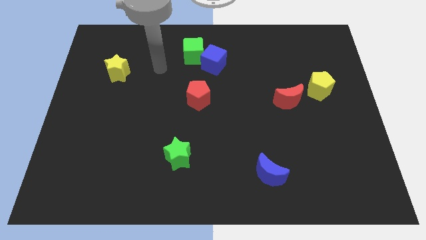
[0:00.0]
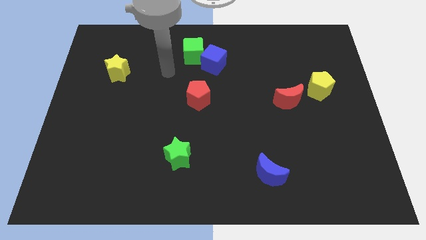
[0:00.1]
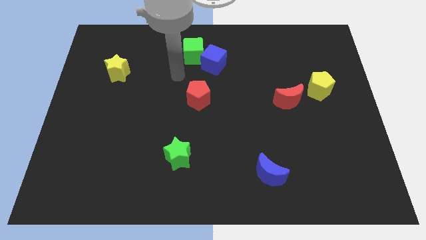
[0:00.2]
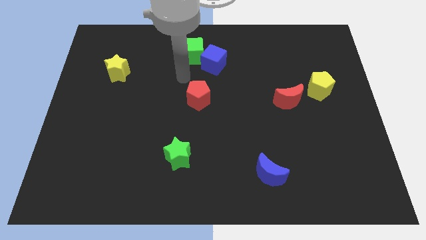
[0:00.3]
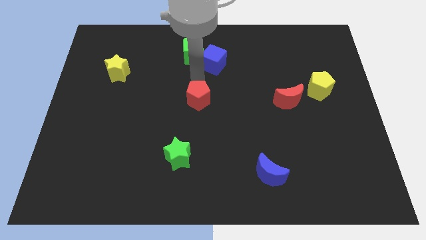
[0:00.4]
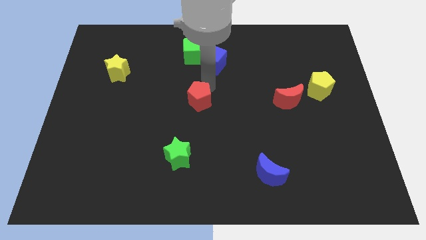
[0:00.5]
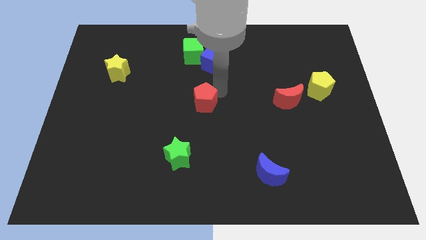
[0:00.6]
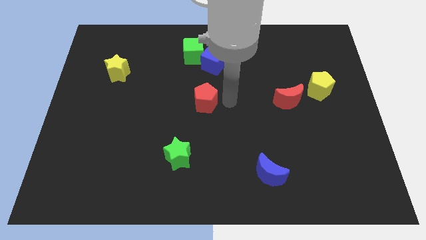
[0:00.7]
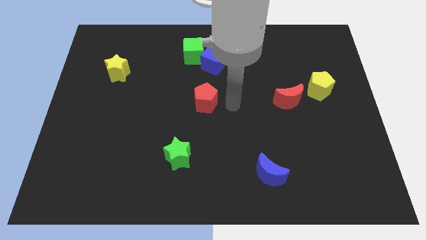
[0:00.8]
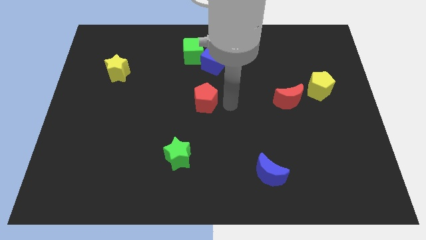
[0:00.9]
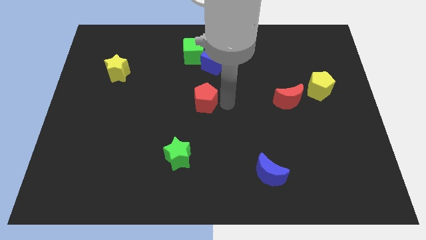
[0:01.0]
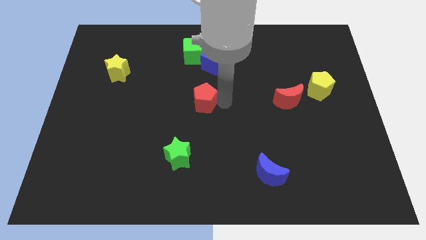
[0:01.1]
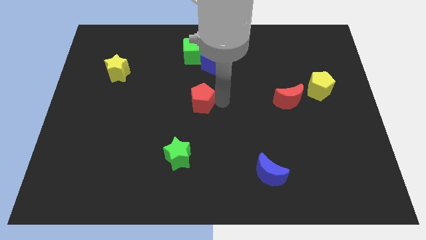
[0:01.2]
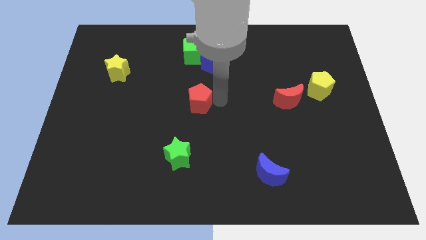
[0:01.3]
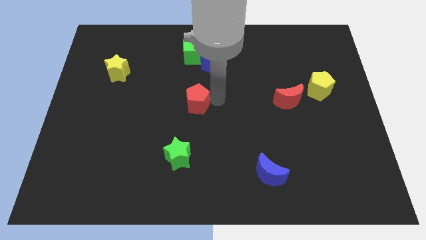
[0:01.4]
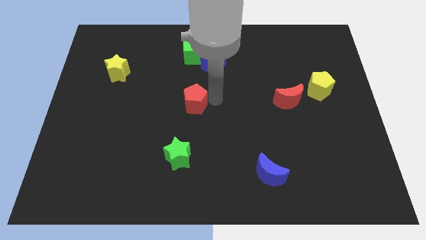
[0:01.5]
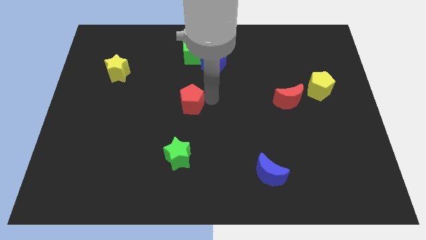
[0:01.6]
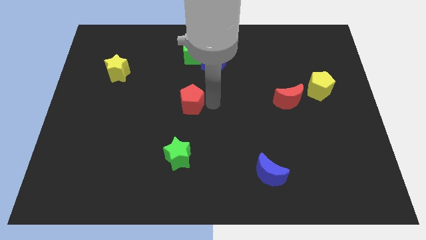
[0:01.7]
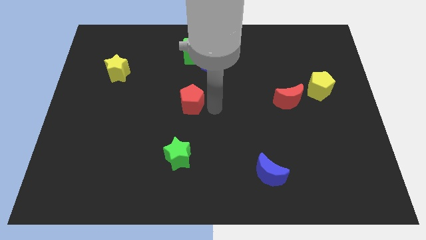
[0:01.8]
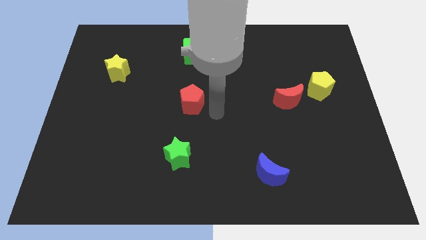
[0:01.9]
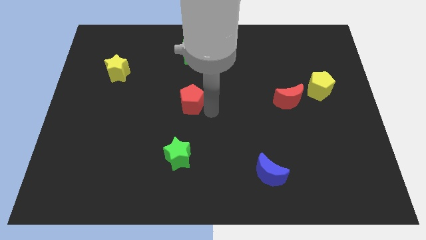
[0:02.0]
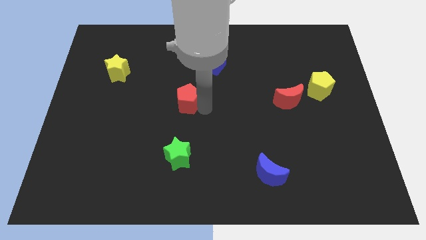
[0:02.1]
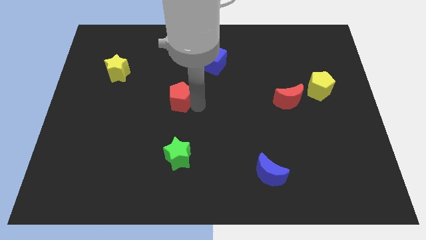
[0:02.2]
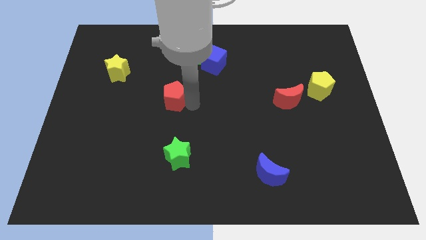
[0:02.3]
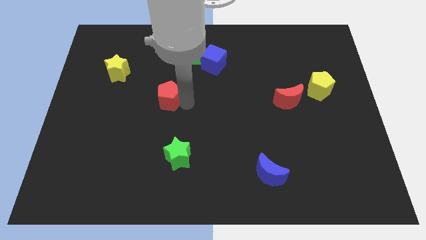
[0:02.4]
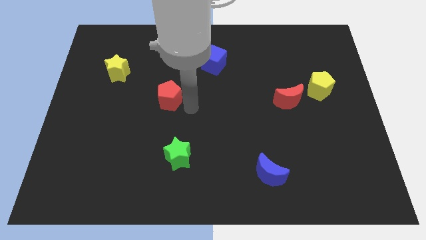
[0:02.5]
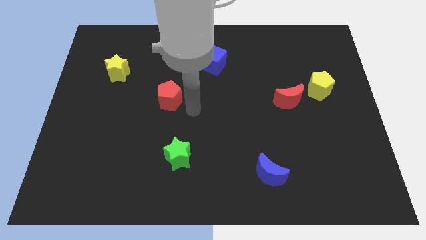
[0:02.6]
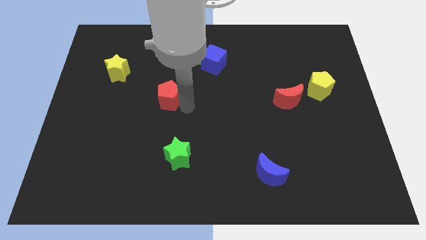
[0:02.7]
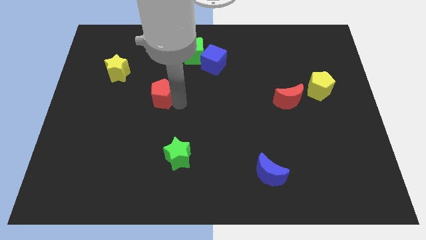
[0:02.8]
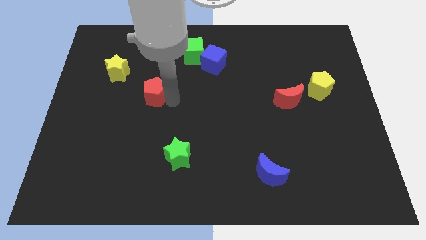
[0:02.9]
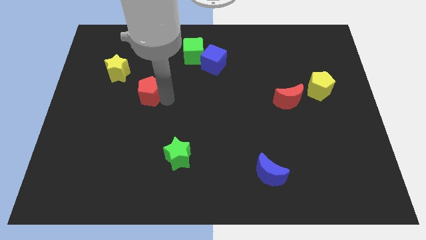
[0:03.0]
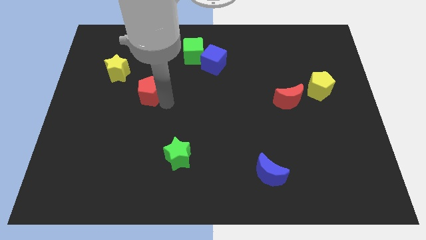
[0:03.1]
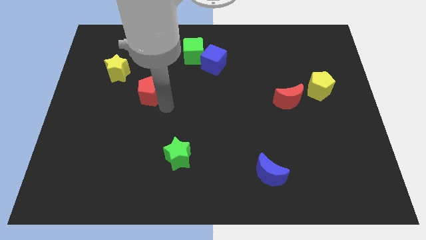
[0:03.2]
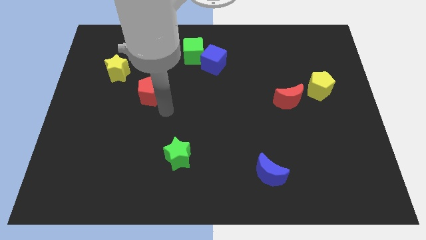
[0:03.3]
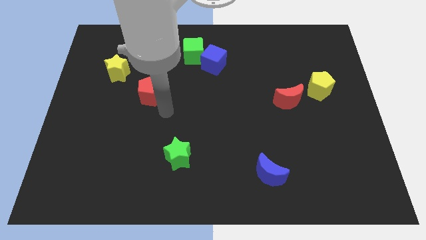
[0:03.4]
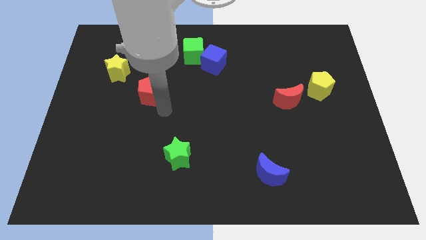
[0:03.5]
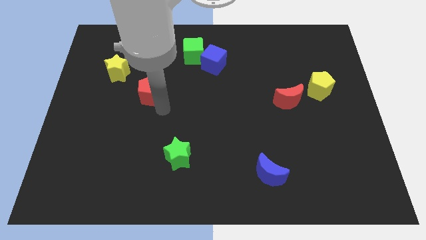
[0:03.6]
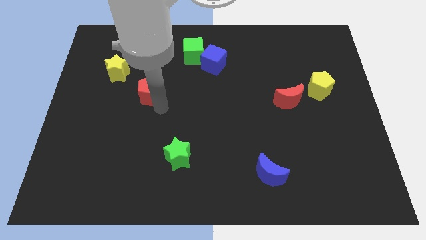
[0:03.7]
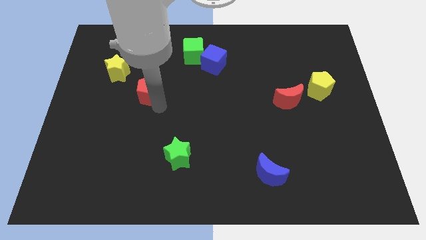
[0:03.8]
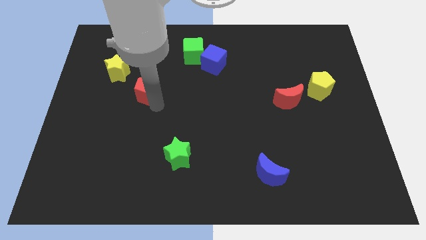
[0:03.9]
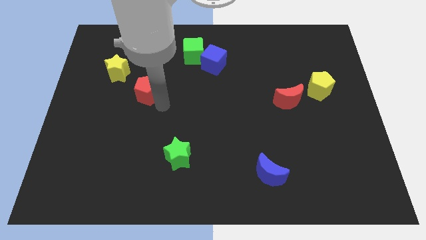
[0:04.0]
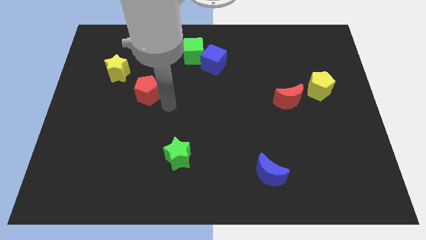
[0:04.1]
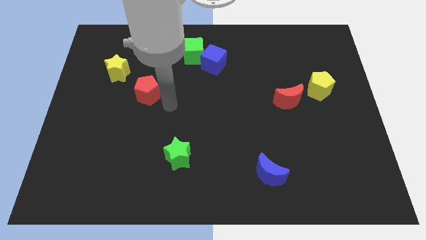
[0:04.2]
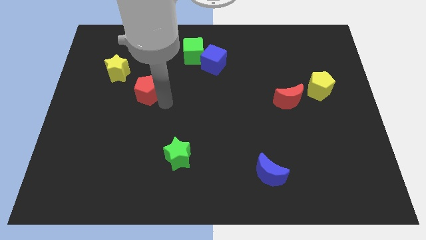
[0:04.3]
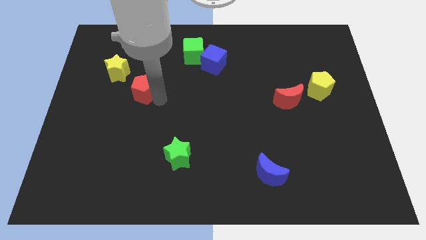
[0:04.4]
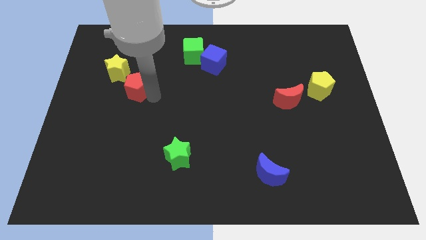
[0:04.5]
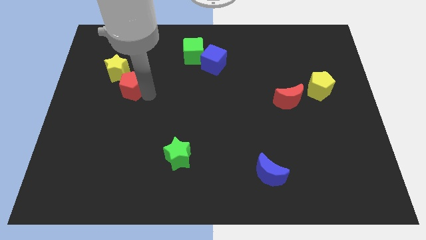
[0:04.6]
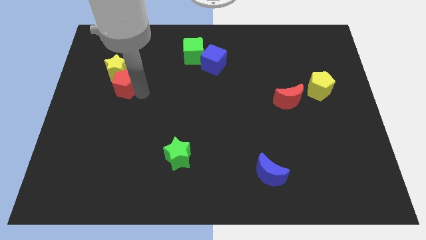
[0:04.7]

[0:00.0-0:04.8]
slide the red pentagon to the yellow star

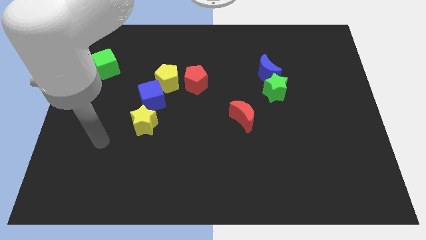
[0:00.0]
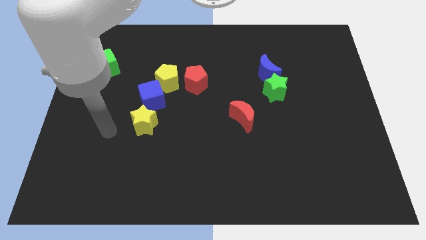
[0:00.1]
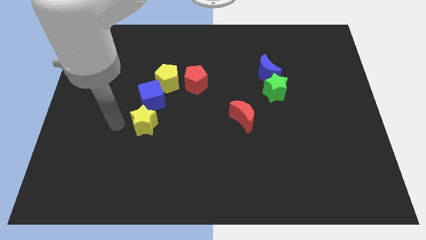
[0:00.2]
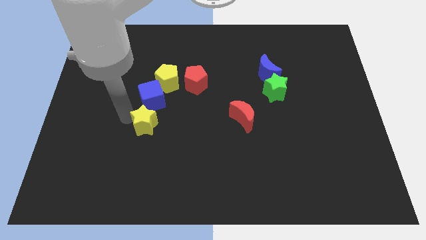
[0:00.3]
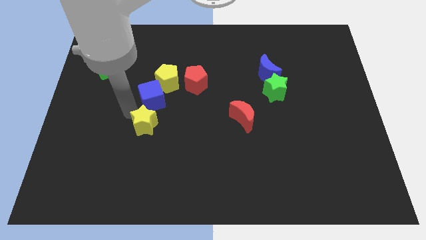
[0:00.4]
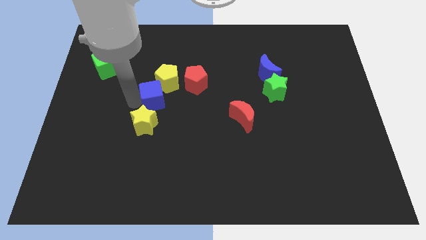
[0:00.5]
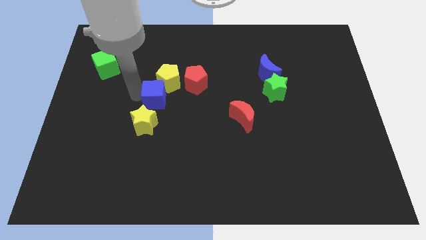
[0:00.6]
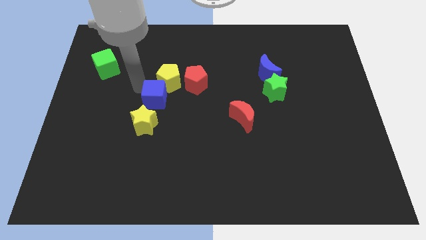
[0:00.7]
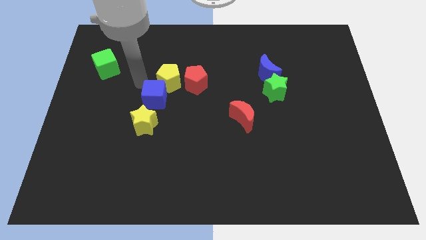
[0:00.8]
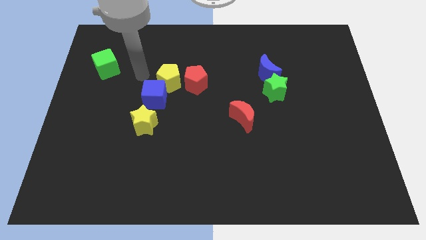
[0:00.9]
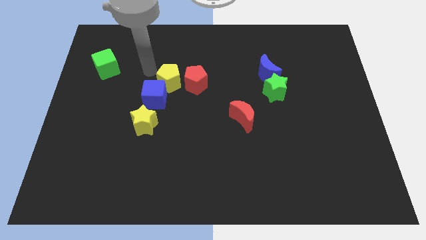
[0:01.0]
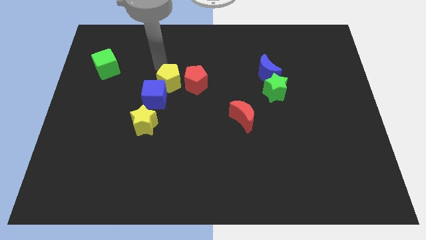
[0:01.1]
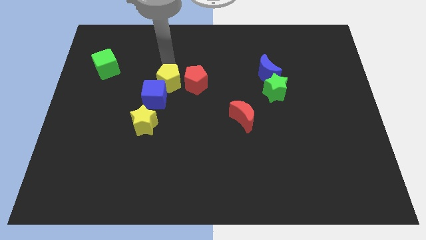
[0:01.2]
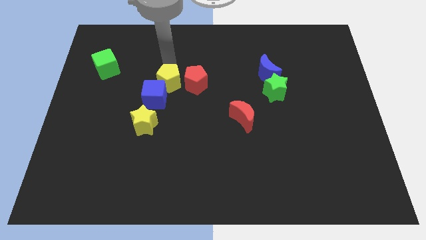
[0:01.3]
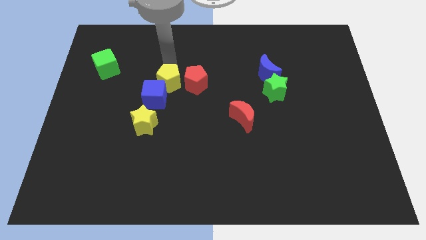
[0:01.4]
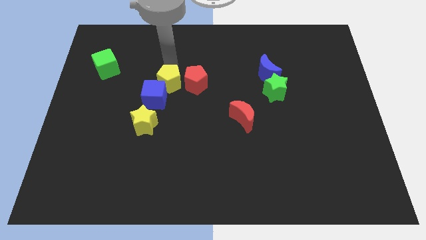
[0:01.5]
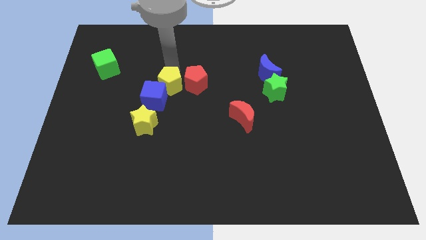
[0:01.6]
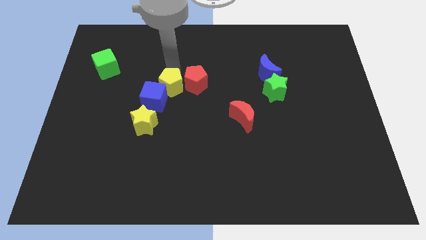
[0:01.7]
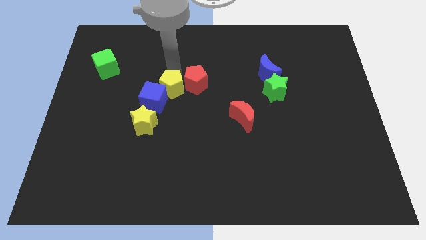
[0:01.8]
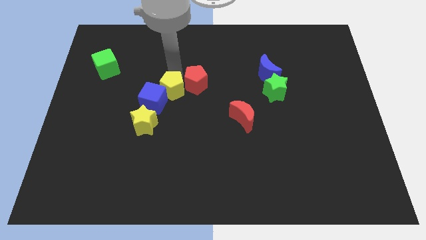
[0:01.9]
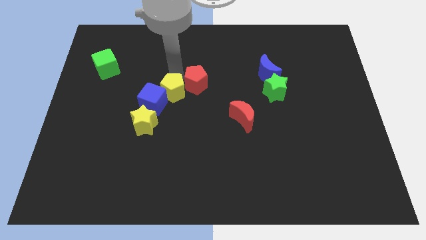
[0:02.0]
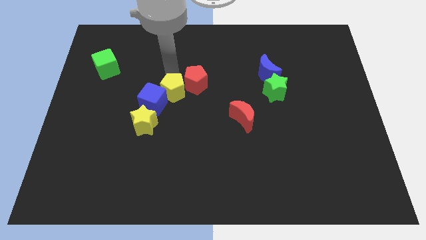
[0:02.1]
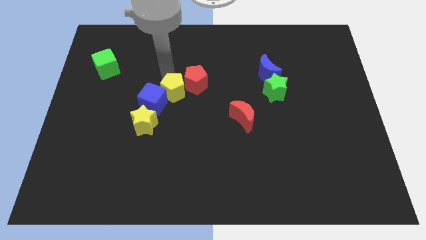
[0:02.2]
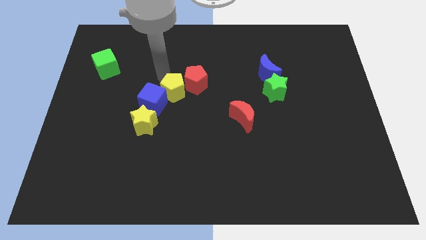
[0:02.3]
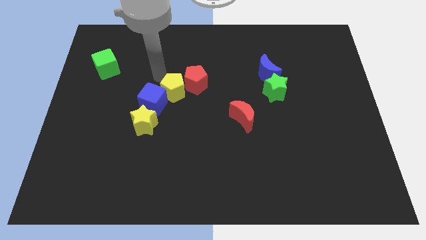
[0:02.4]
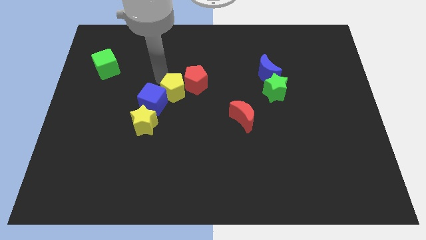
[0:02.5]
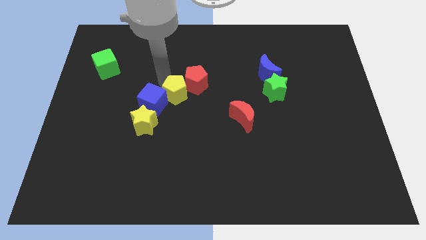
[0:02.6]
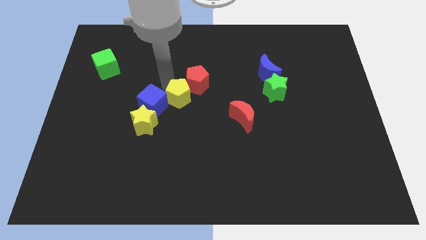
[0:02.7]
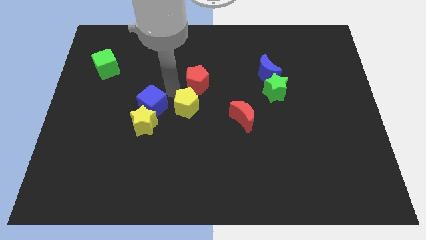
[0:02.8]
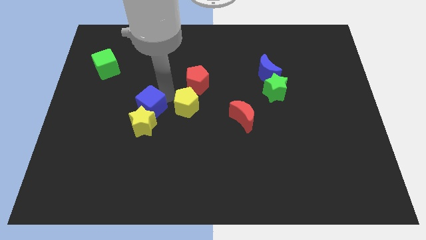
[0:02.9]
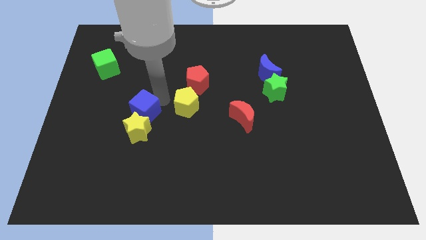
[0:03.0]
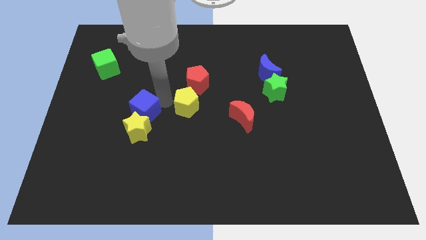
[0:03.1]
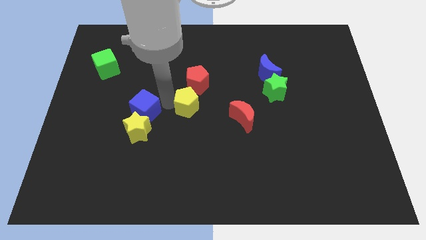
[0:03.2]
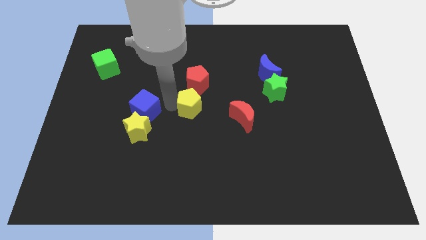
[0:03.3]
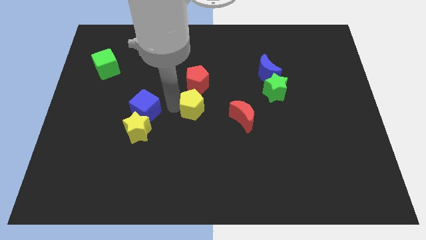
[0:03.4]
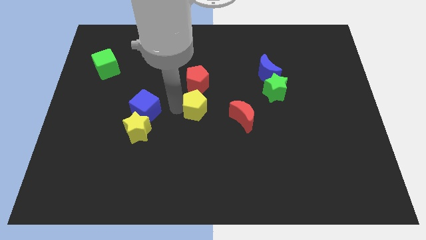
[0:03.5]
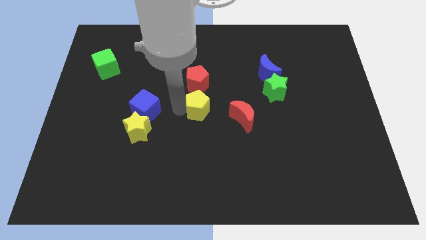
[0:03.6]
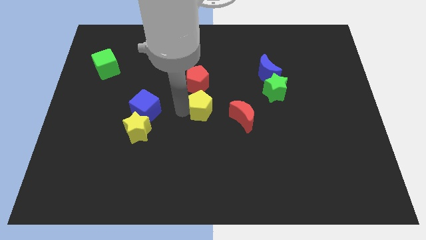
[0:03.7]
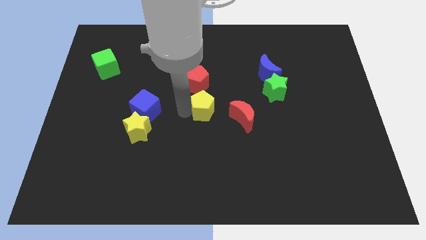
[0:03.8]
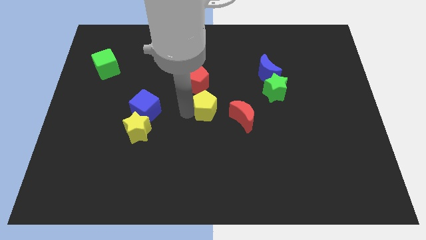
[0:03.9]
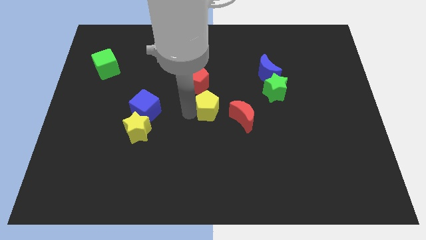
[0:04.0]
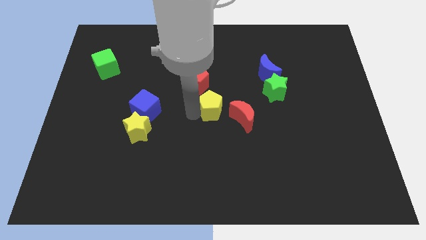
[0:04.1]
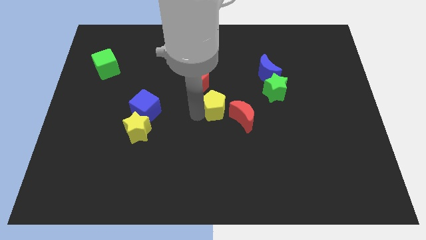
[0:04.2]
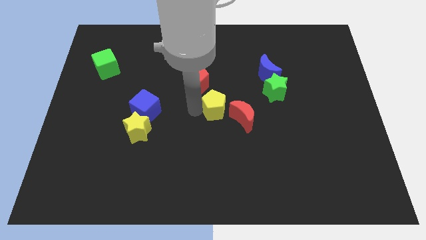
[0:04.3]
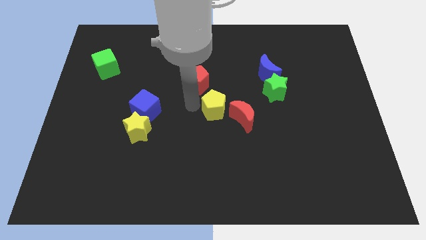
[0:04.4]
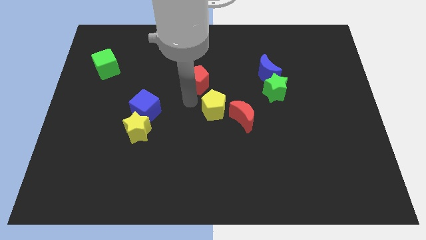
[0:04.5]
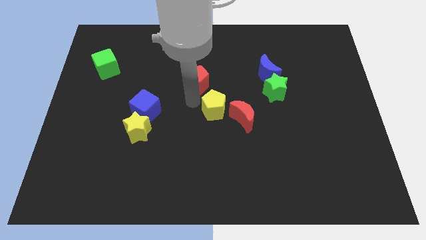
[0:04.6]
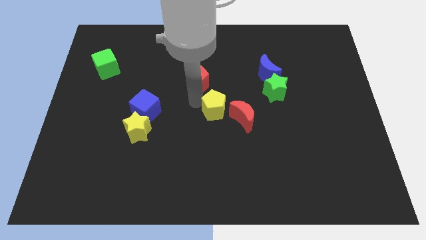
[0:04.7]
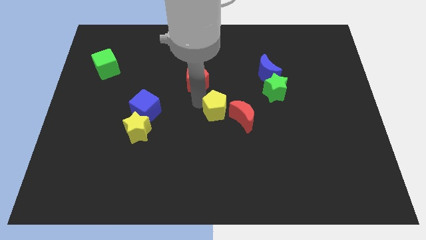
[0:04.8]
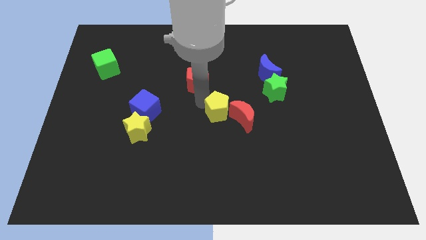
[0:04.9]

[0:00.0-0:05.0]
put the yellow pentagon towards the red moon
